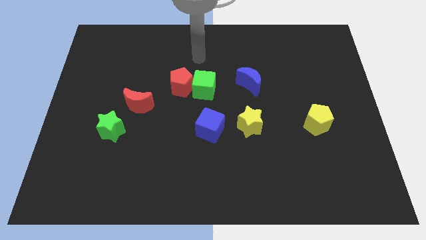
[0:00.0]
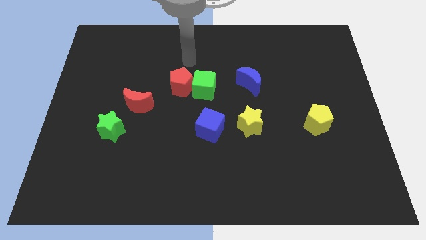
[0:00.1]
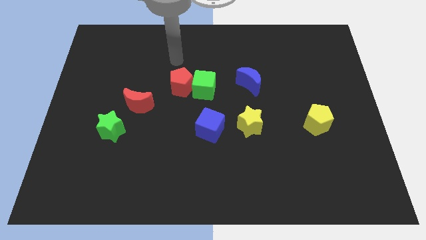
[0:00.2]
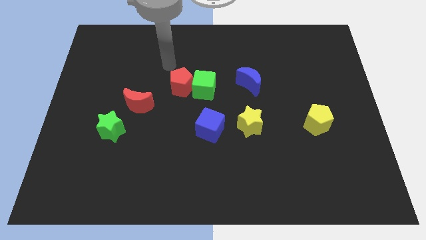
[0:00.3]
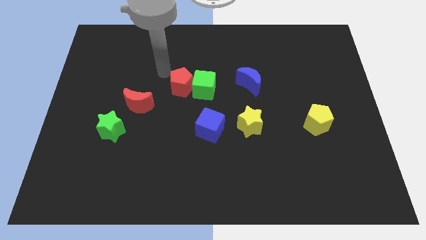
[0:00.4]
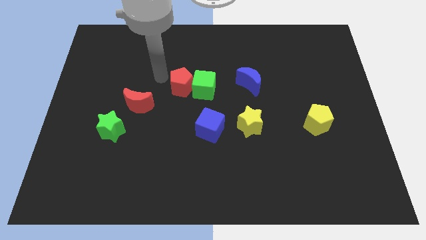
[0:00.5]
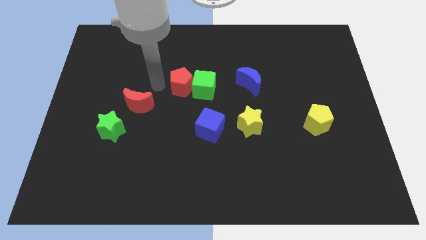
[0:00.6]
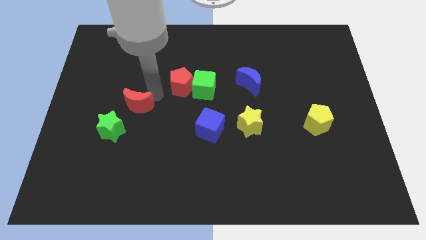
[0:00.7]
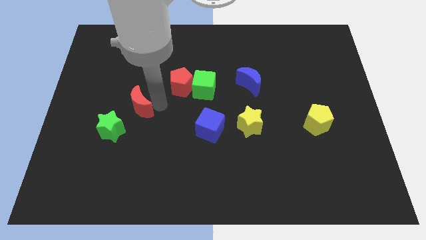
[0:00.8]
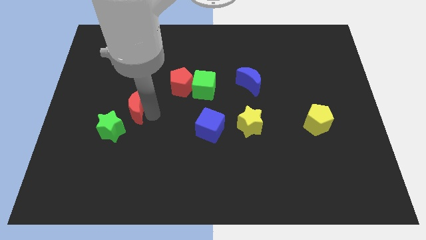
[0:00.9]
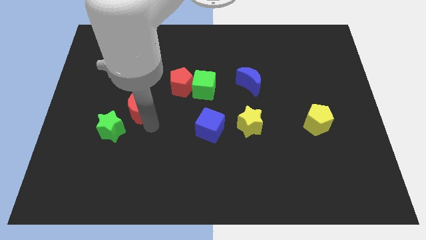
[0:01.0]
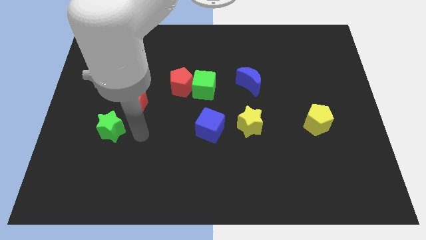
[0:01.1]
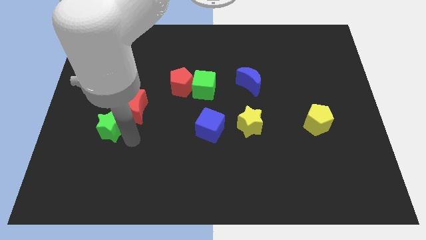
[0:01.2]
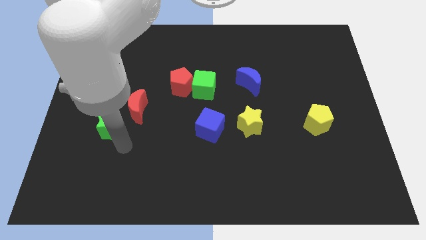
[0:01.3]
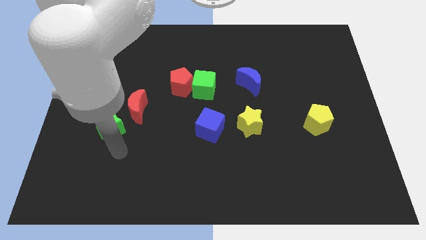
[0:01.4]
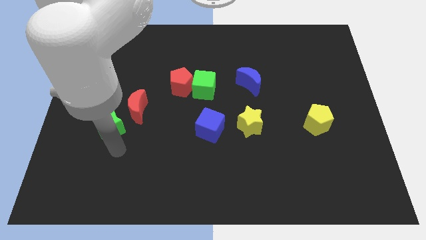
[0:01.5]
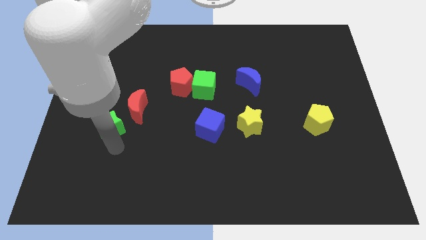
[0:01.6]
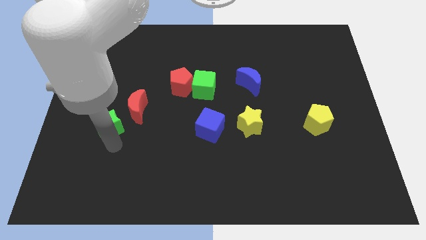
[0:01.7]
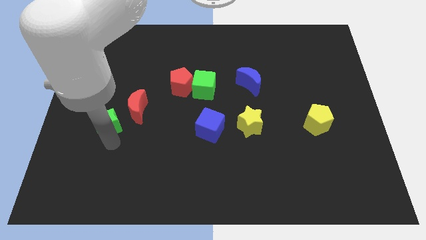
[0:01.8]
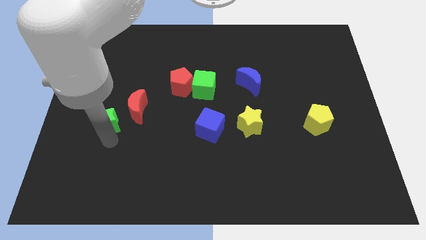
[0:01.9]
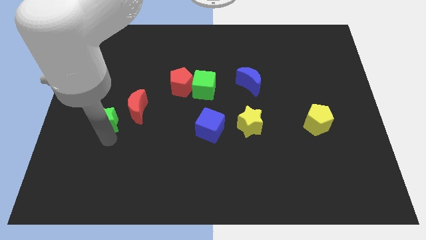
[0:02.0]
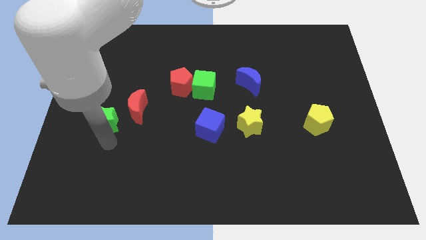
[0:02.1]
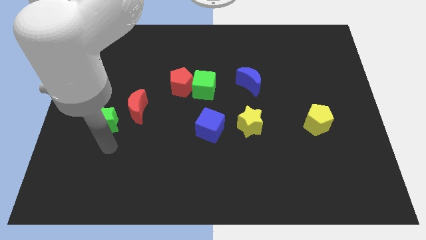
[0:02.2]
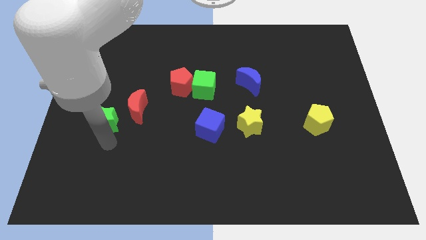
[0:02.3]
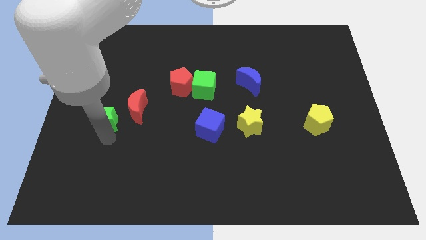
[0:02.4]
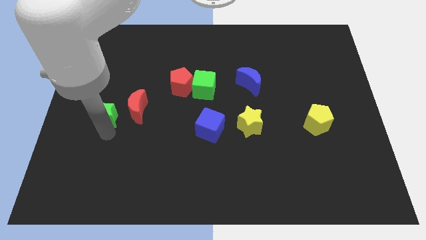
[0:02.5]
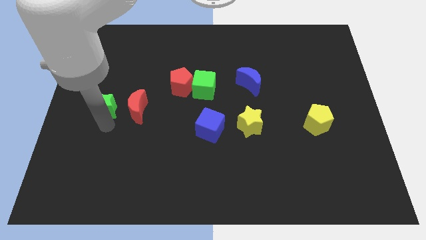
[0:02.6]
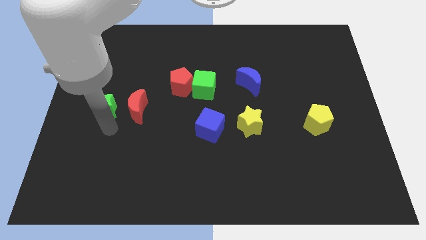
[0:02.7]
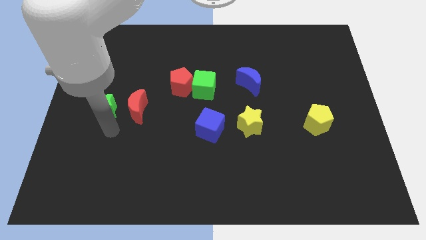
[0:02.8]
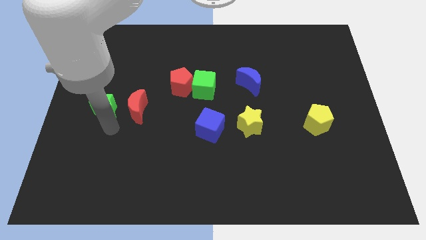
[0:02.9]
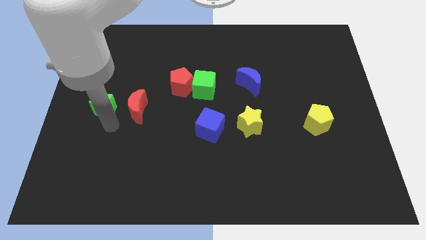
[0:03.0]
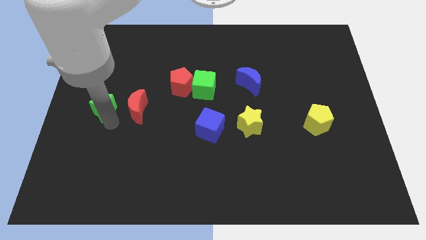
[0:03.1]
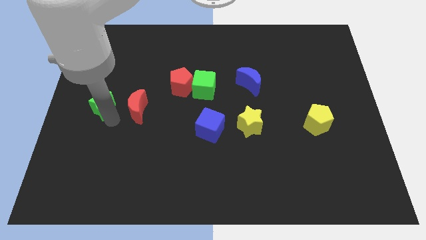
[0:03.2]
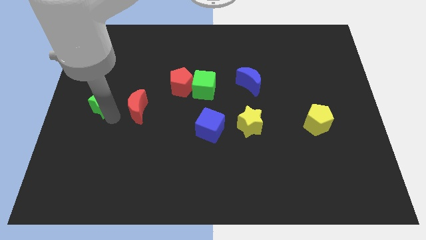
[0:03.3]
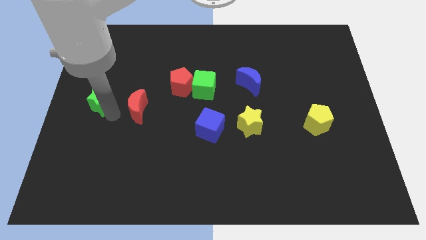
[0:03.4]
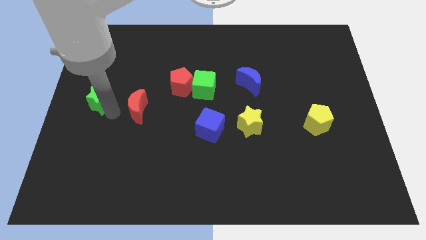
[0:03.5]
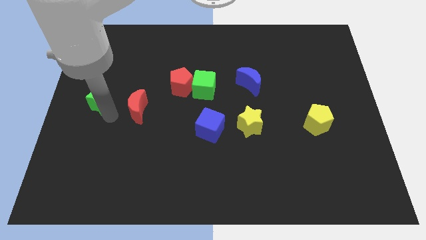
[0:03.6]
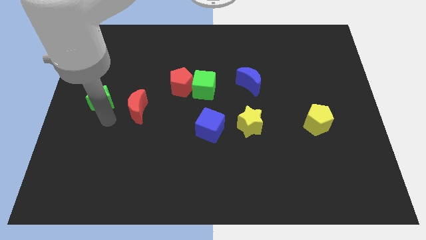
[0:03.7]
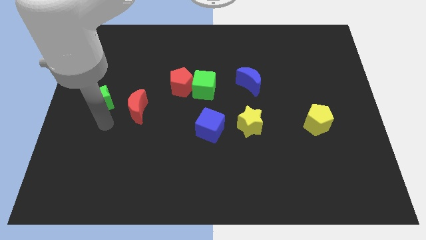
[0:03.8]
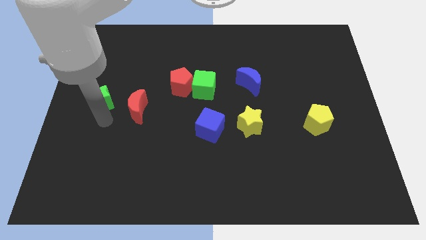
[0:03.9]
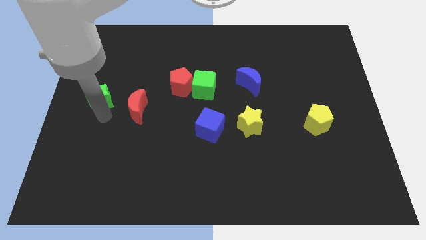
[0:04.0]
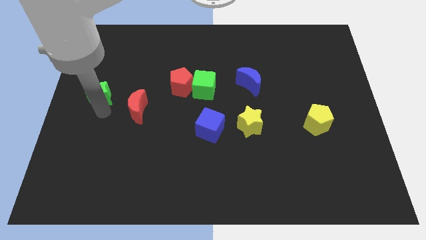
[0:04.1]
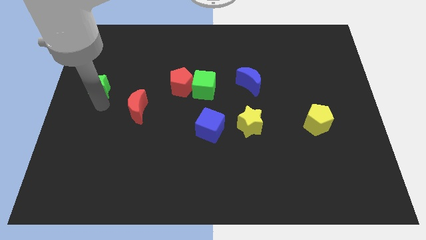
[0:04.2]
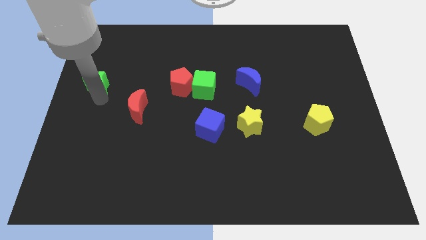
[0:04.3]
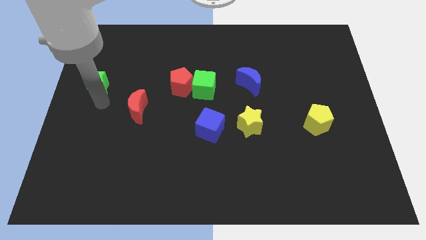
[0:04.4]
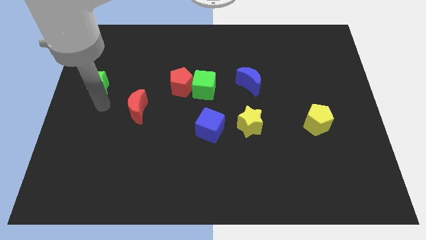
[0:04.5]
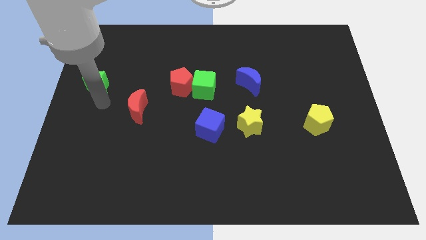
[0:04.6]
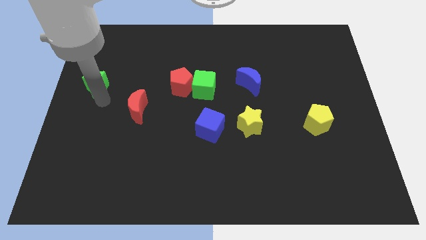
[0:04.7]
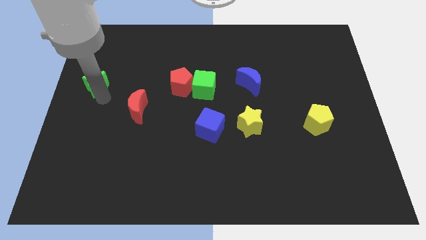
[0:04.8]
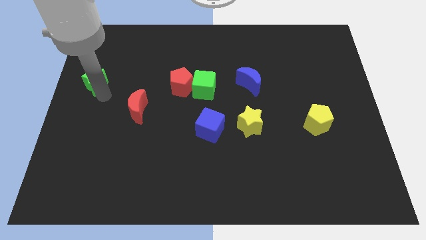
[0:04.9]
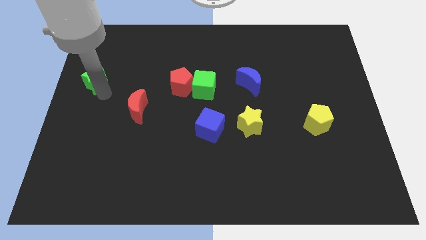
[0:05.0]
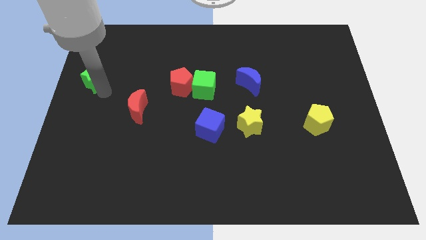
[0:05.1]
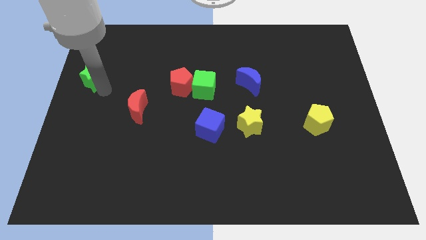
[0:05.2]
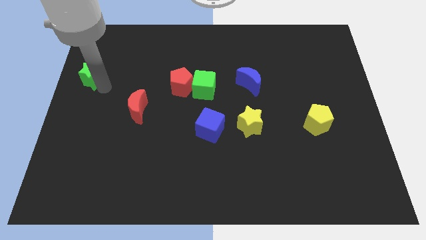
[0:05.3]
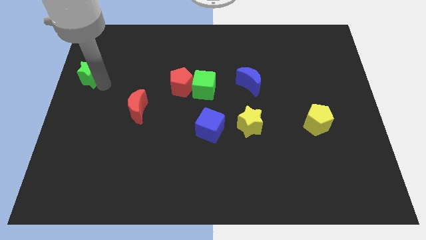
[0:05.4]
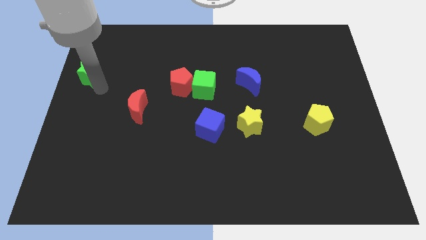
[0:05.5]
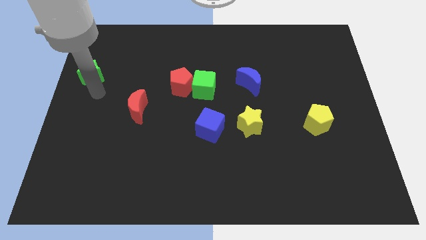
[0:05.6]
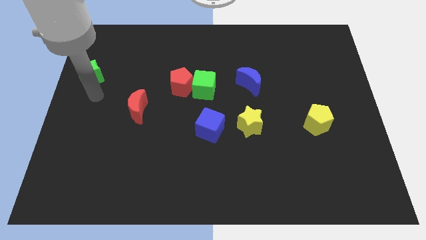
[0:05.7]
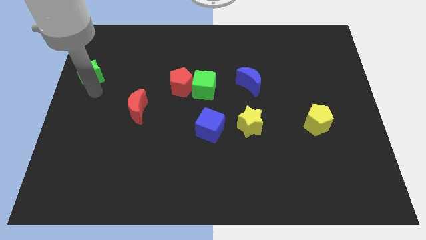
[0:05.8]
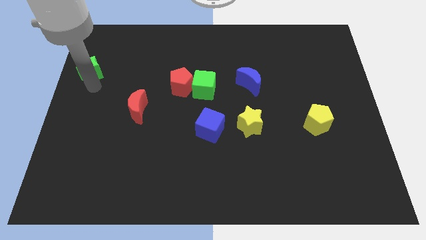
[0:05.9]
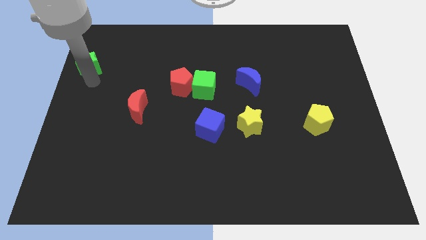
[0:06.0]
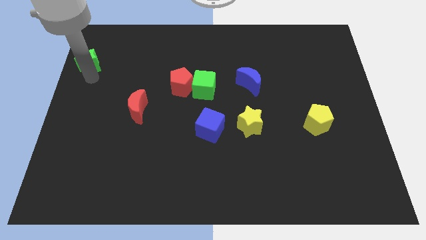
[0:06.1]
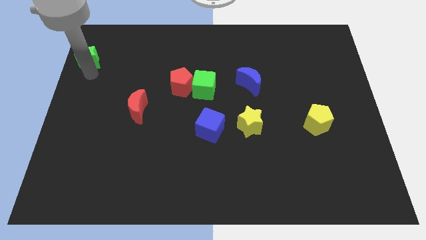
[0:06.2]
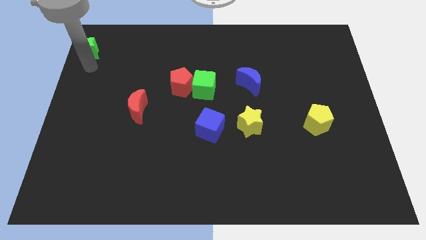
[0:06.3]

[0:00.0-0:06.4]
put the green star to the top left of the board
